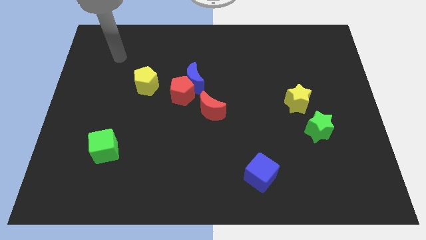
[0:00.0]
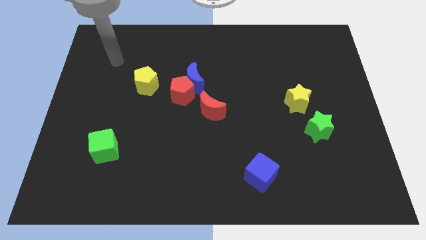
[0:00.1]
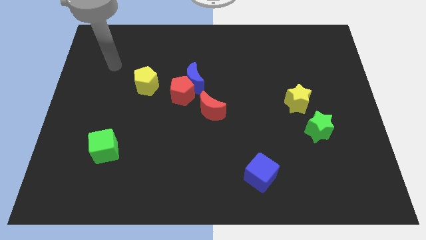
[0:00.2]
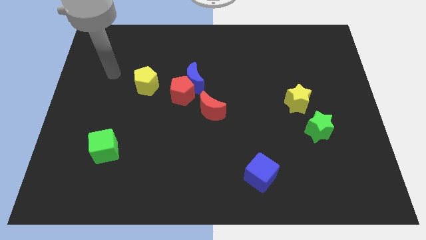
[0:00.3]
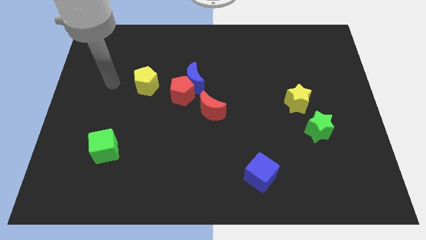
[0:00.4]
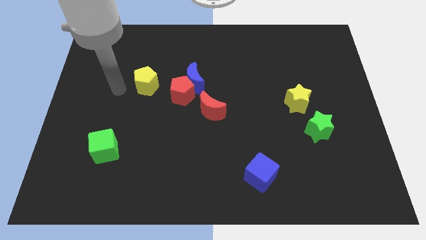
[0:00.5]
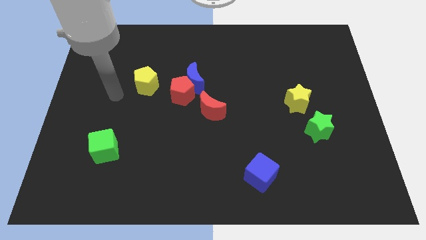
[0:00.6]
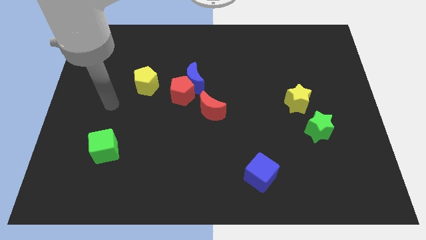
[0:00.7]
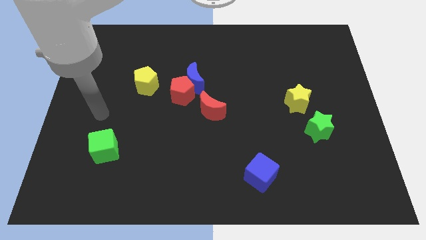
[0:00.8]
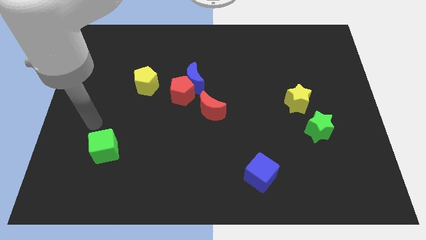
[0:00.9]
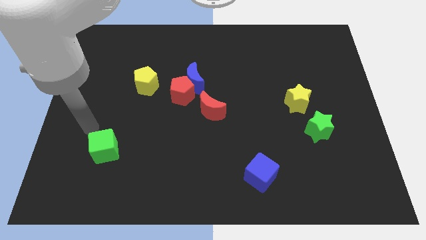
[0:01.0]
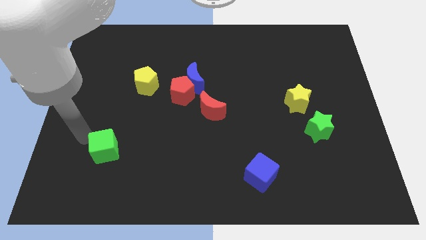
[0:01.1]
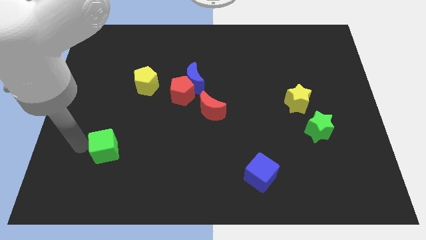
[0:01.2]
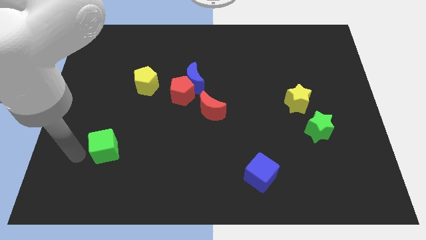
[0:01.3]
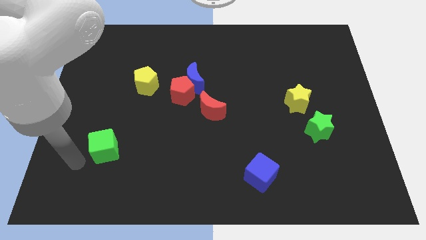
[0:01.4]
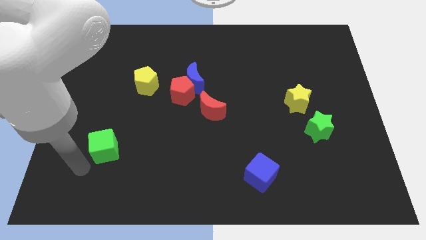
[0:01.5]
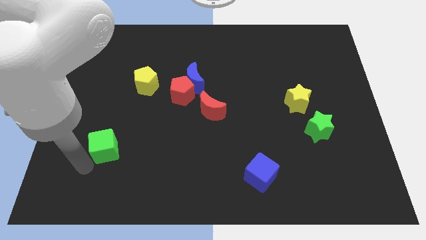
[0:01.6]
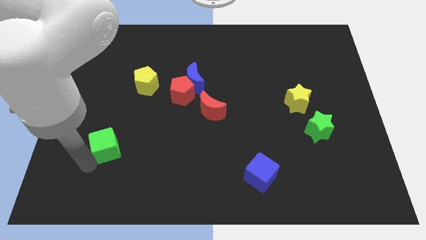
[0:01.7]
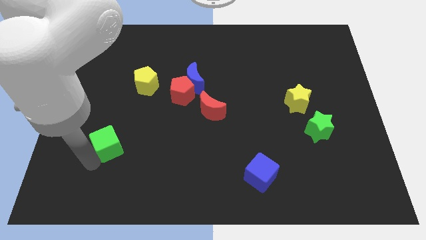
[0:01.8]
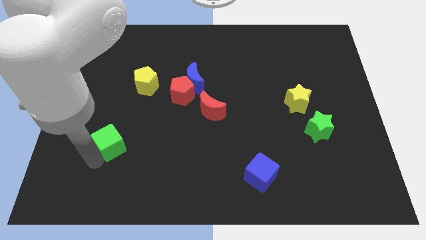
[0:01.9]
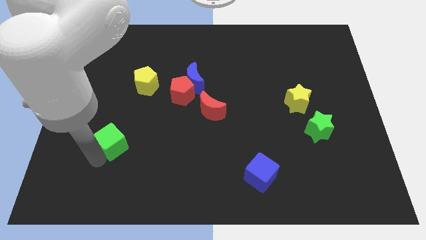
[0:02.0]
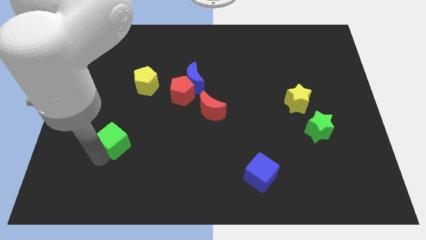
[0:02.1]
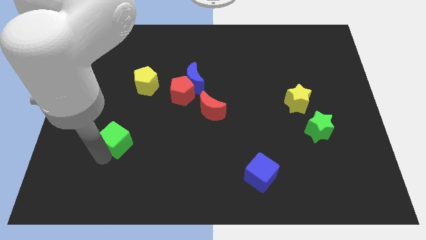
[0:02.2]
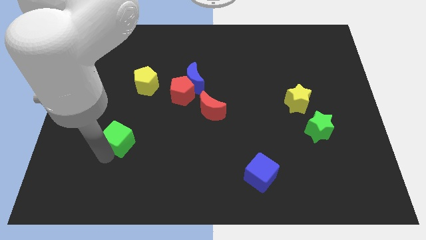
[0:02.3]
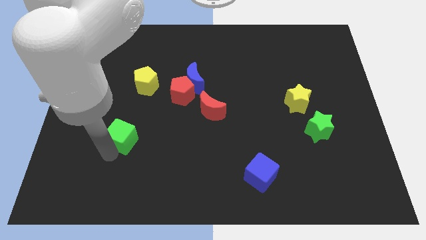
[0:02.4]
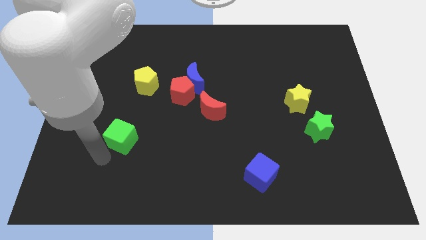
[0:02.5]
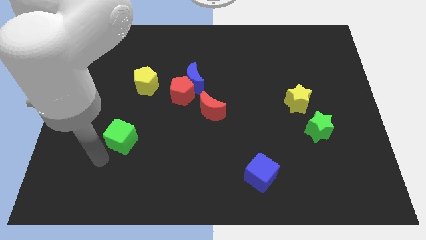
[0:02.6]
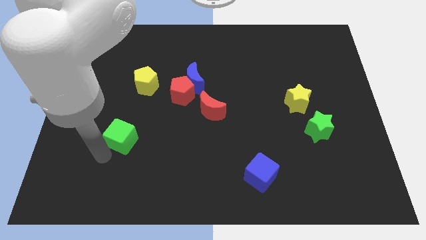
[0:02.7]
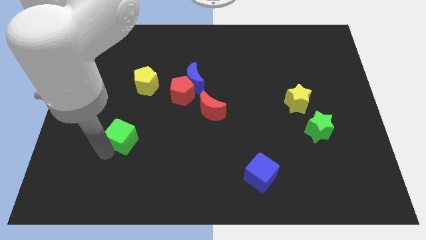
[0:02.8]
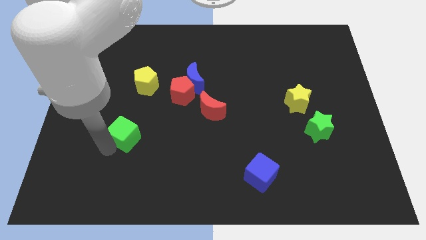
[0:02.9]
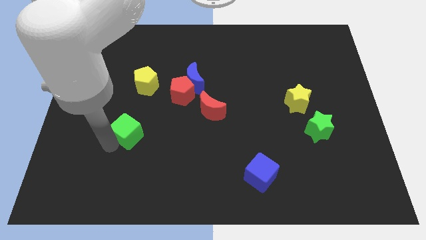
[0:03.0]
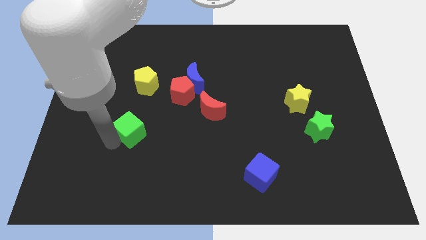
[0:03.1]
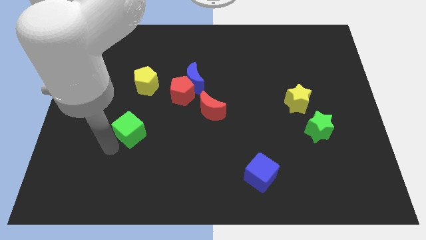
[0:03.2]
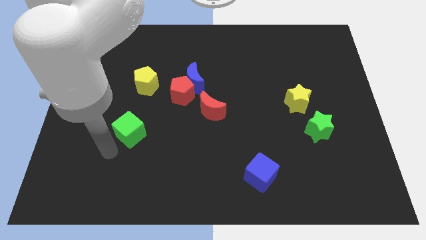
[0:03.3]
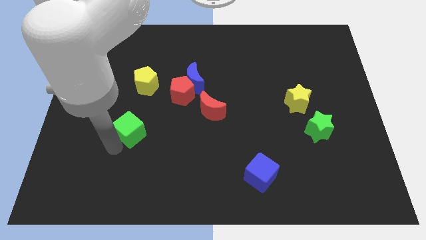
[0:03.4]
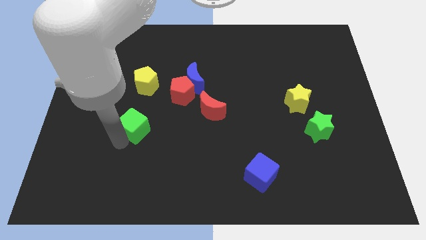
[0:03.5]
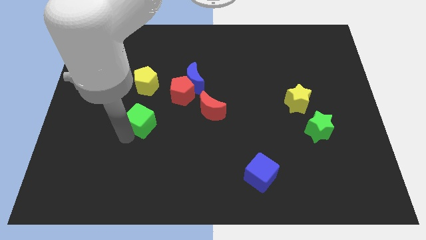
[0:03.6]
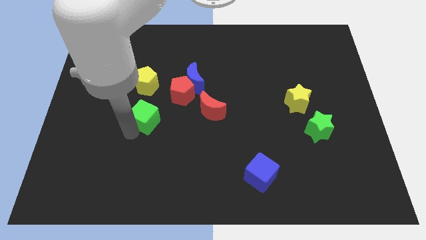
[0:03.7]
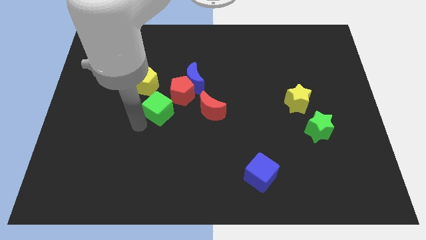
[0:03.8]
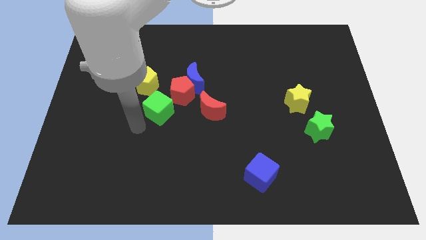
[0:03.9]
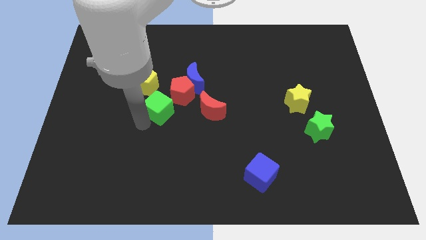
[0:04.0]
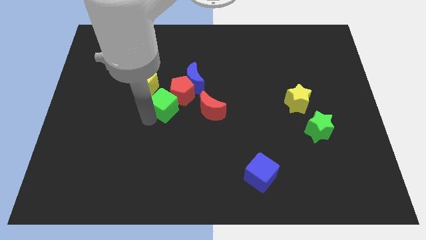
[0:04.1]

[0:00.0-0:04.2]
move the green cube towards the red pentagon

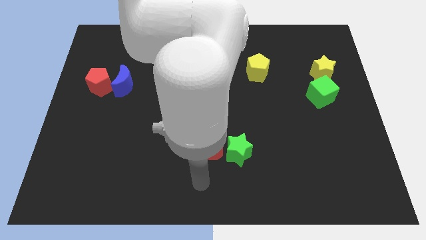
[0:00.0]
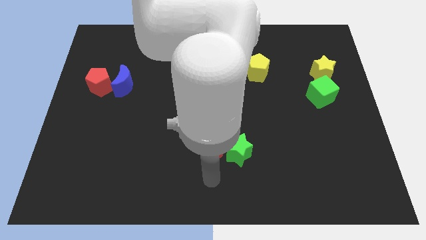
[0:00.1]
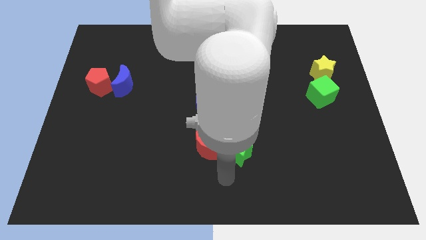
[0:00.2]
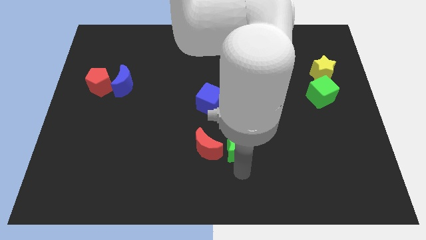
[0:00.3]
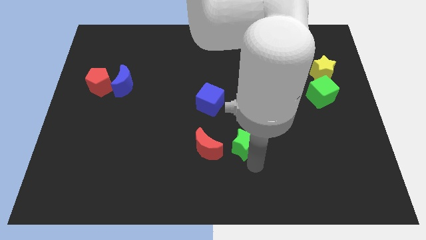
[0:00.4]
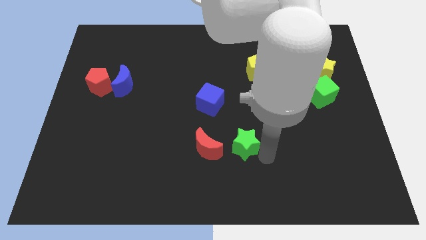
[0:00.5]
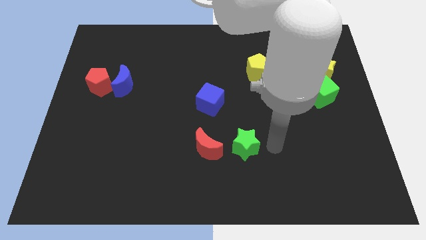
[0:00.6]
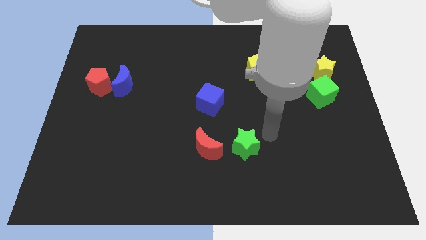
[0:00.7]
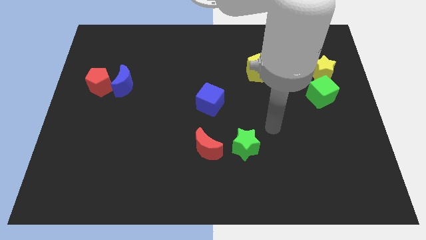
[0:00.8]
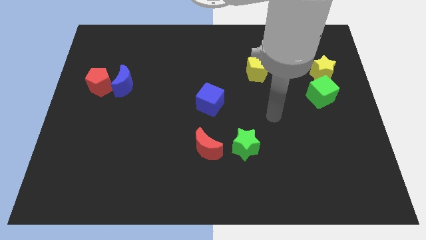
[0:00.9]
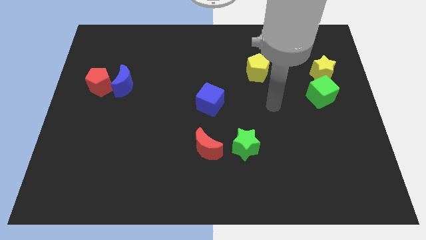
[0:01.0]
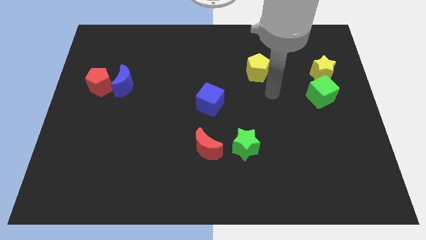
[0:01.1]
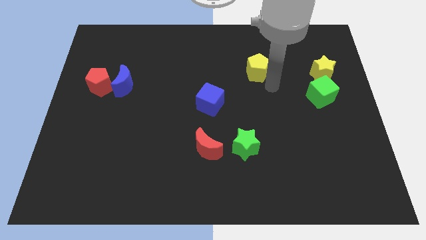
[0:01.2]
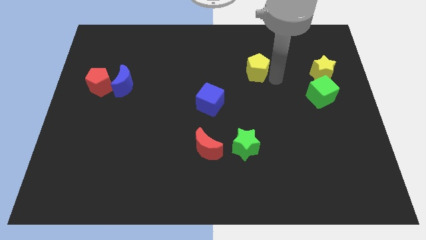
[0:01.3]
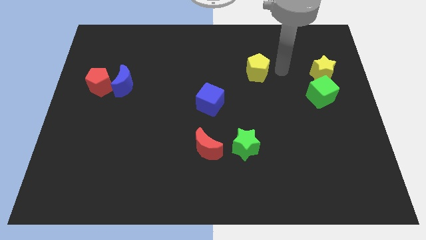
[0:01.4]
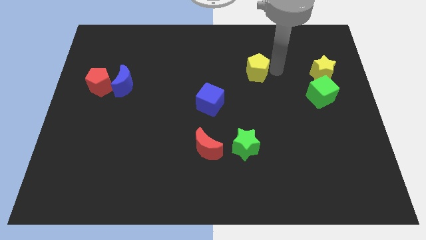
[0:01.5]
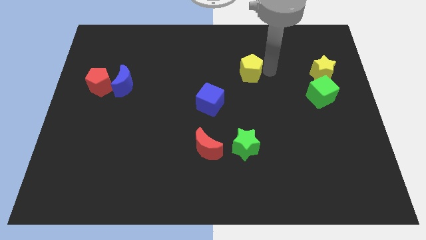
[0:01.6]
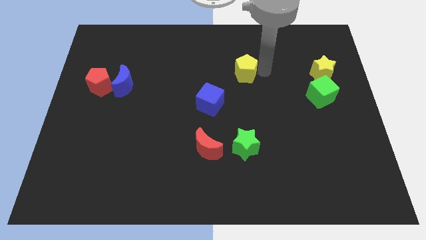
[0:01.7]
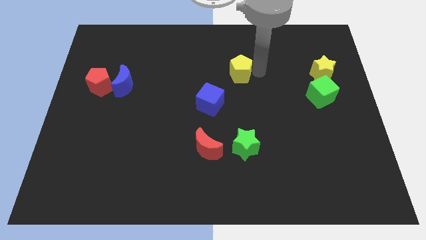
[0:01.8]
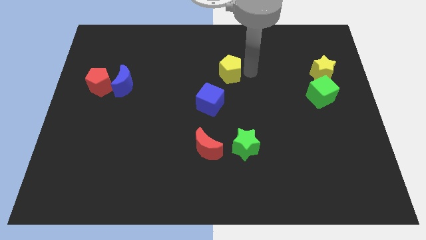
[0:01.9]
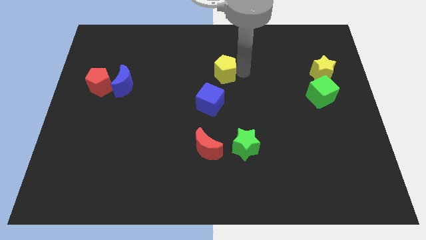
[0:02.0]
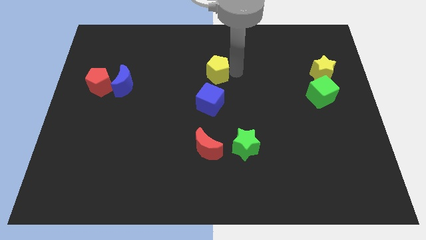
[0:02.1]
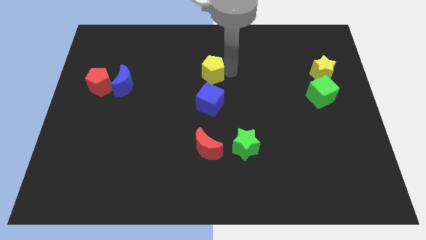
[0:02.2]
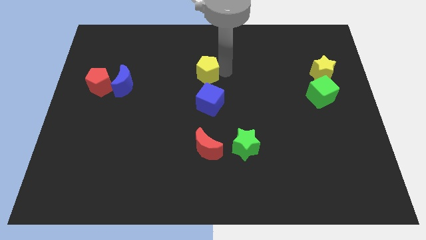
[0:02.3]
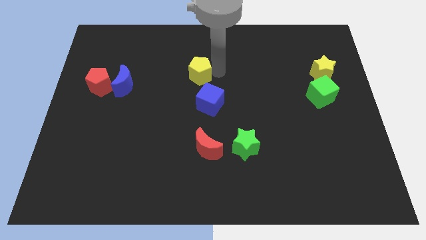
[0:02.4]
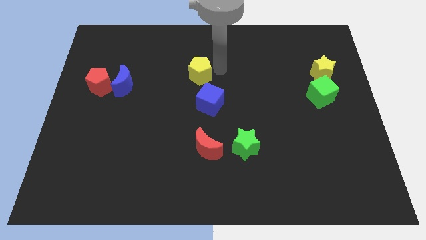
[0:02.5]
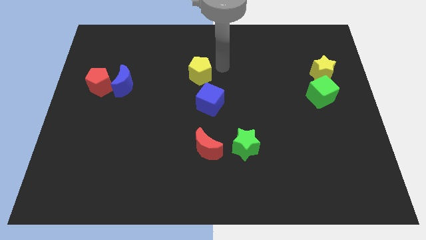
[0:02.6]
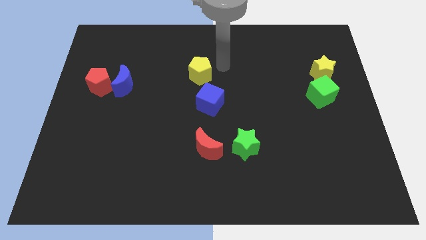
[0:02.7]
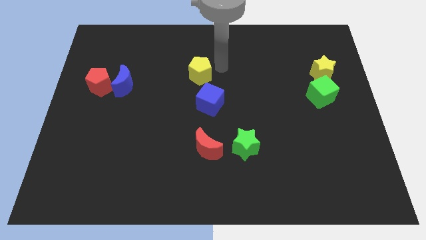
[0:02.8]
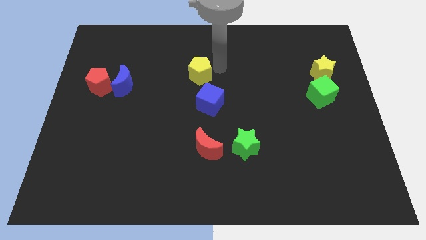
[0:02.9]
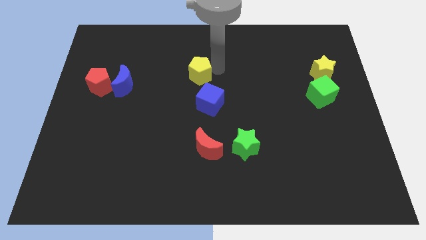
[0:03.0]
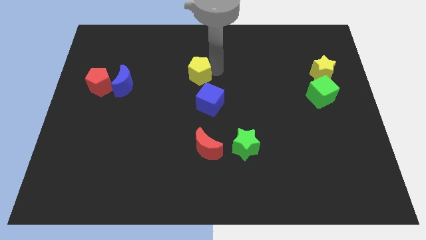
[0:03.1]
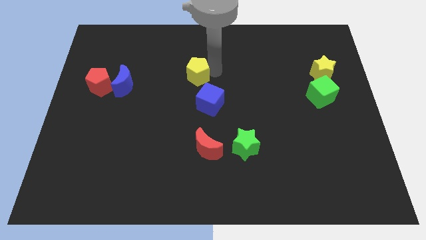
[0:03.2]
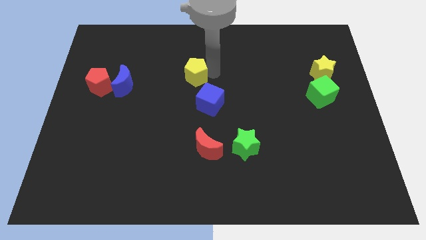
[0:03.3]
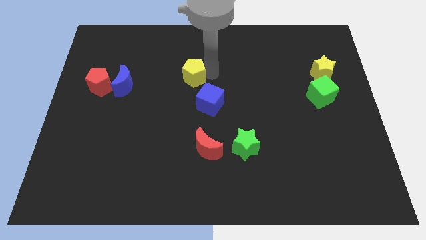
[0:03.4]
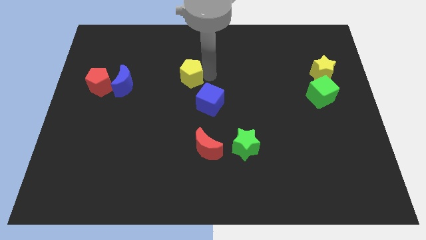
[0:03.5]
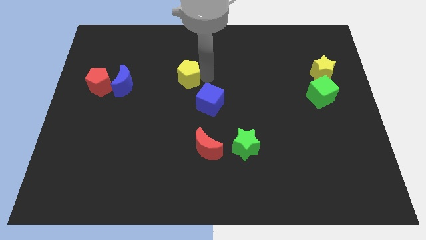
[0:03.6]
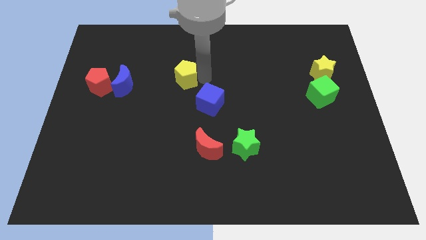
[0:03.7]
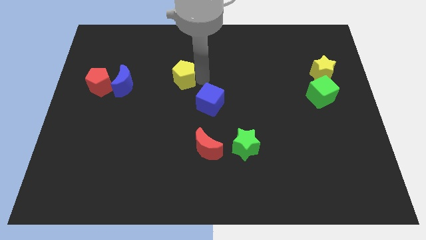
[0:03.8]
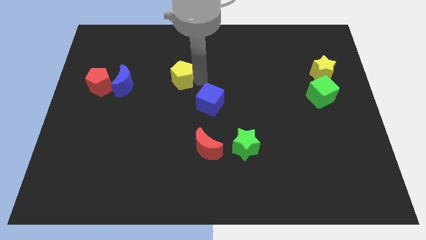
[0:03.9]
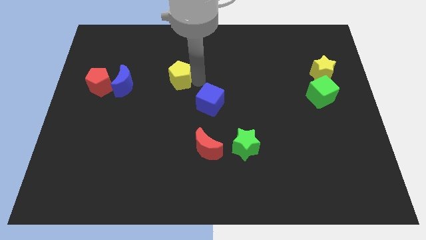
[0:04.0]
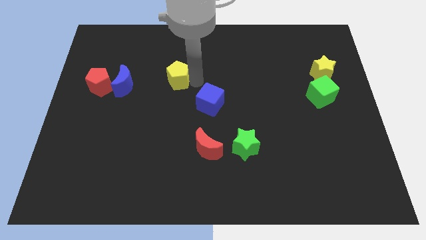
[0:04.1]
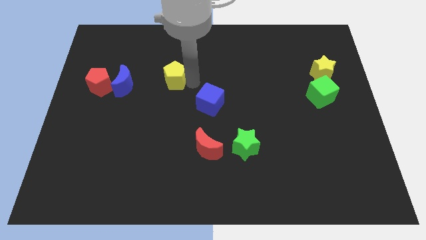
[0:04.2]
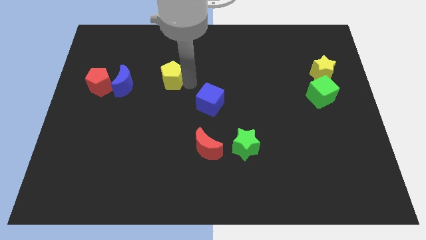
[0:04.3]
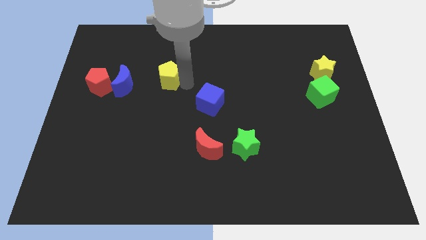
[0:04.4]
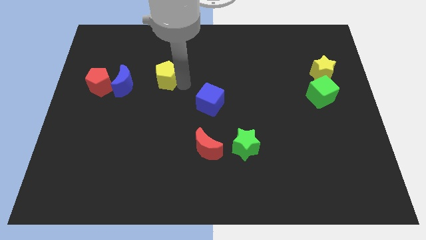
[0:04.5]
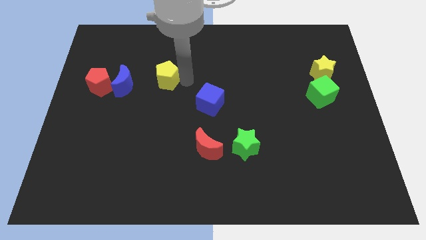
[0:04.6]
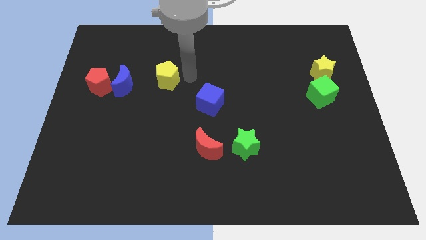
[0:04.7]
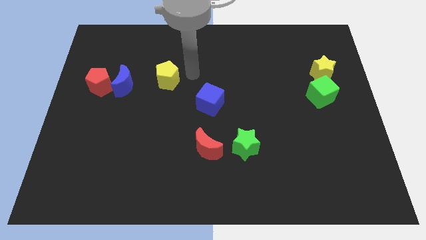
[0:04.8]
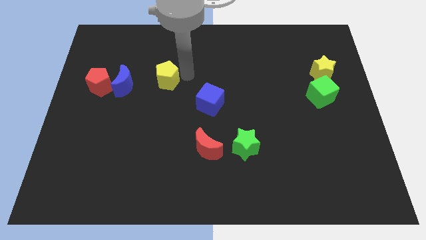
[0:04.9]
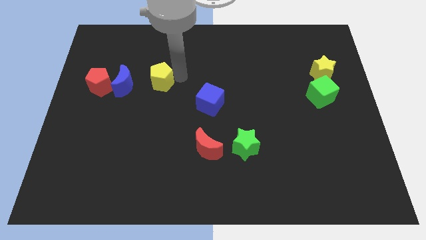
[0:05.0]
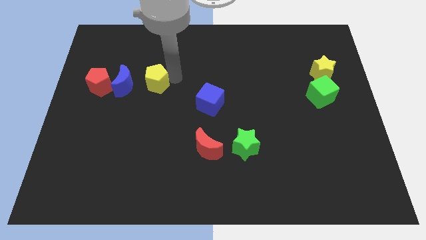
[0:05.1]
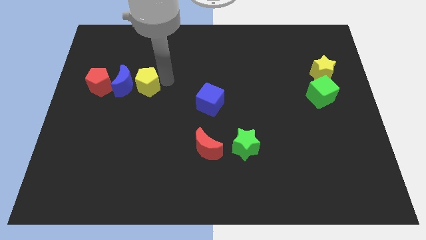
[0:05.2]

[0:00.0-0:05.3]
push the yellow pentagon towards the blue moon
